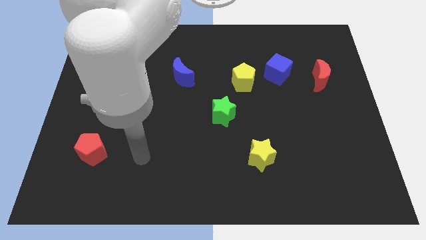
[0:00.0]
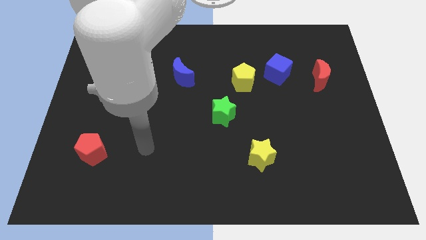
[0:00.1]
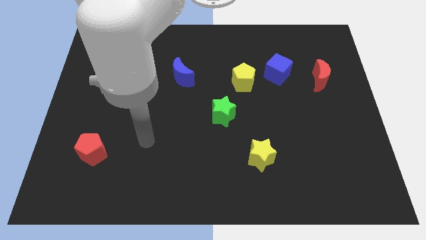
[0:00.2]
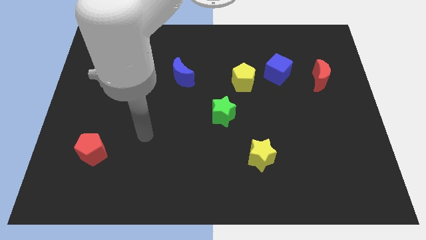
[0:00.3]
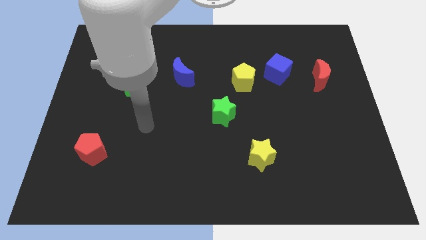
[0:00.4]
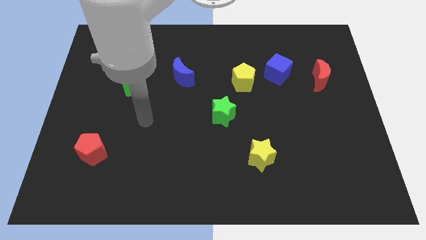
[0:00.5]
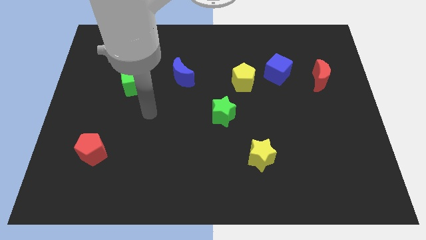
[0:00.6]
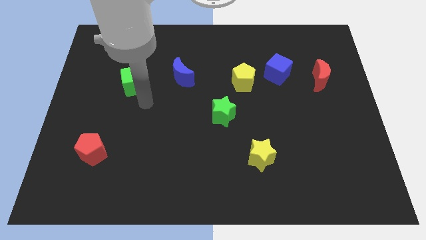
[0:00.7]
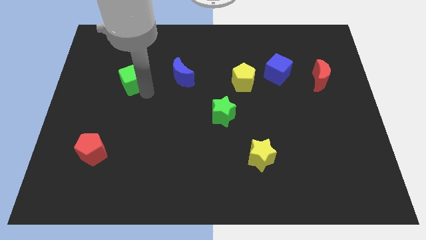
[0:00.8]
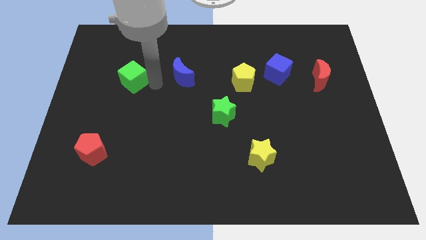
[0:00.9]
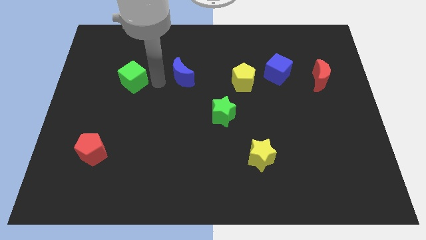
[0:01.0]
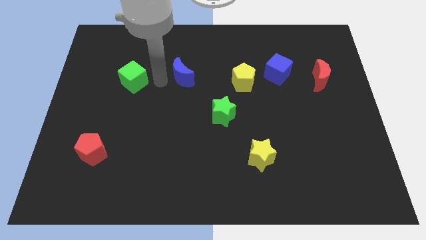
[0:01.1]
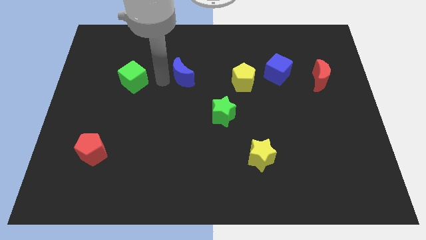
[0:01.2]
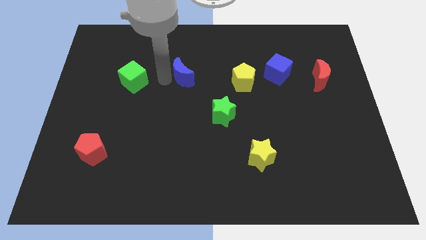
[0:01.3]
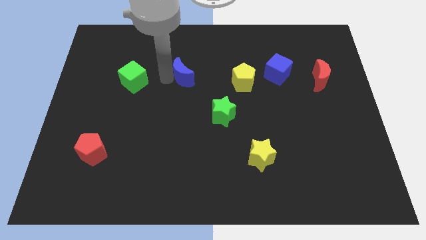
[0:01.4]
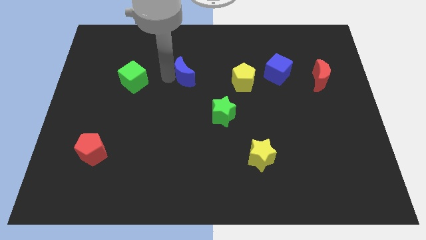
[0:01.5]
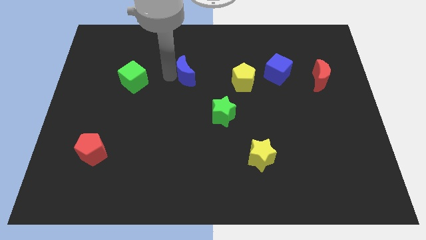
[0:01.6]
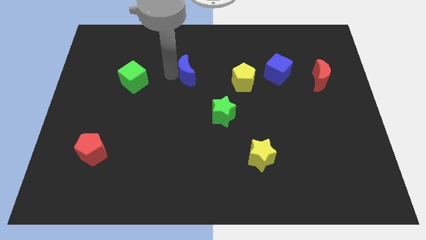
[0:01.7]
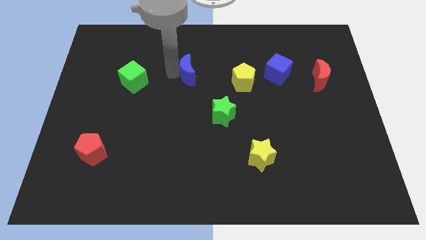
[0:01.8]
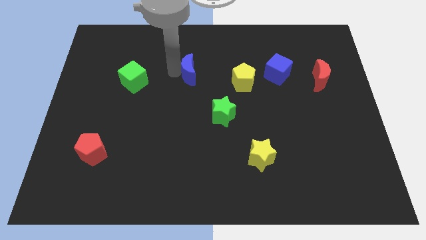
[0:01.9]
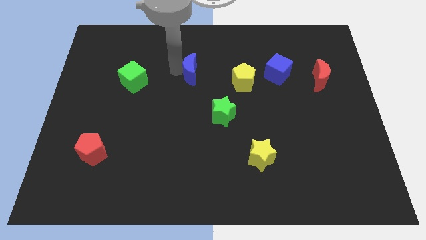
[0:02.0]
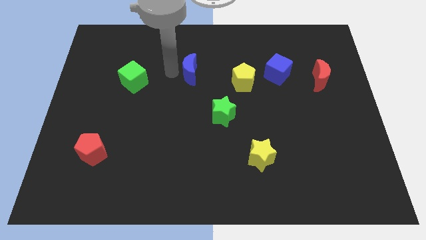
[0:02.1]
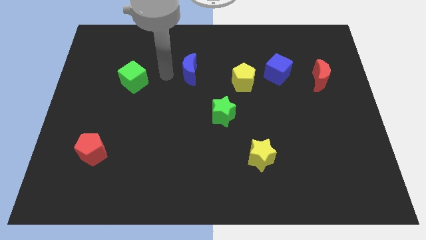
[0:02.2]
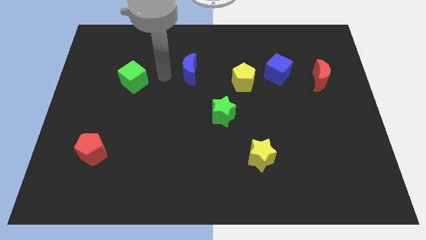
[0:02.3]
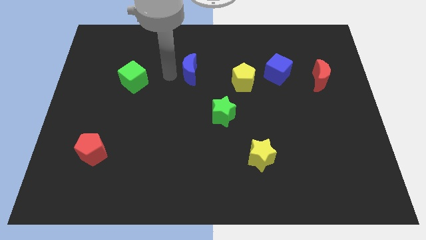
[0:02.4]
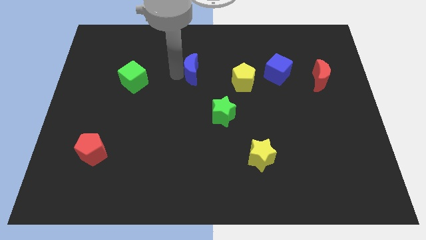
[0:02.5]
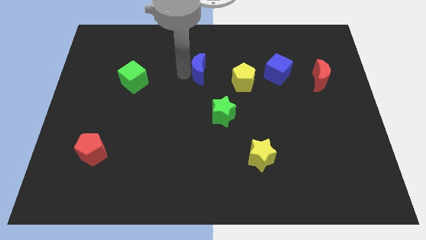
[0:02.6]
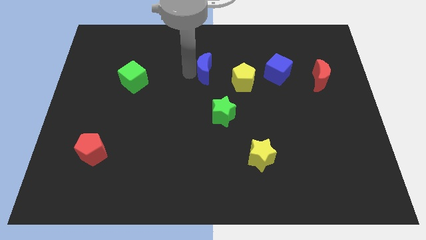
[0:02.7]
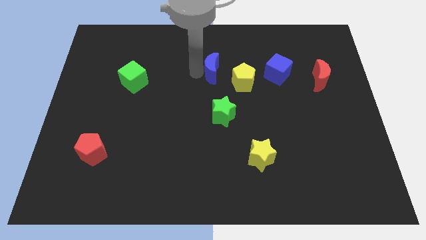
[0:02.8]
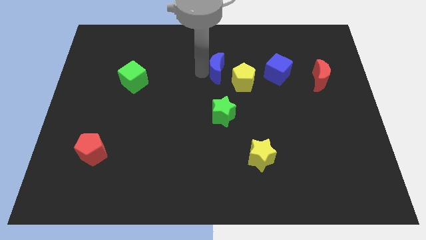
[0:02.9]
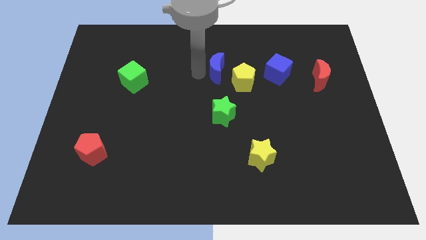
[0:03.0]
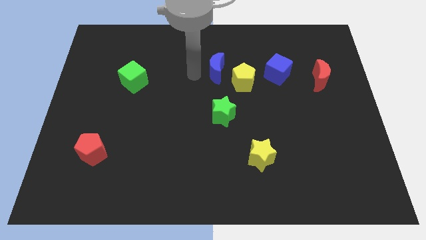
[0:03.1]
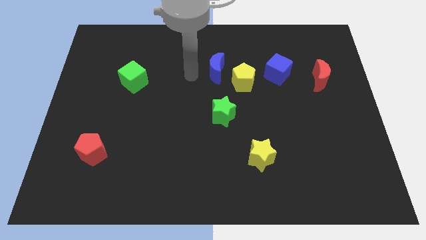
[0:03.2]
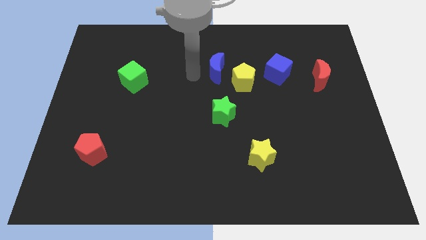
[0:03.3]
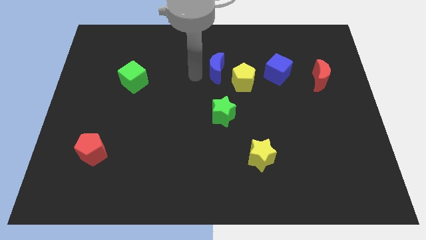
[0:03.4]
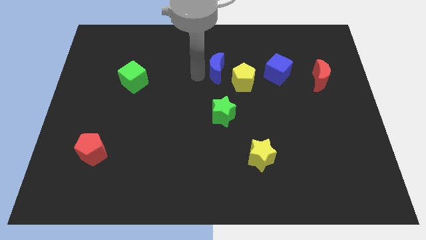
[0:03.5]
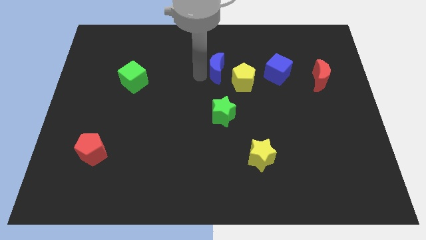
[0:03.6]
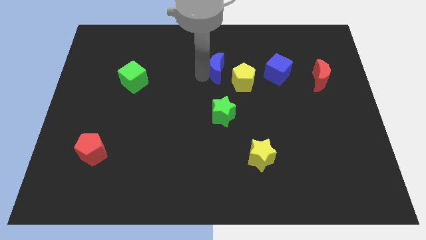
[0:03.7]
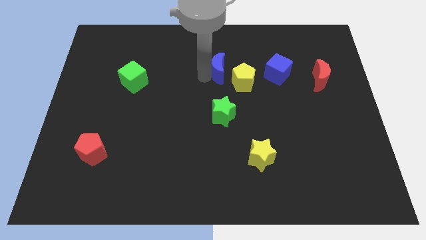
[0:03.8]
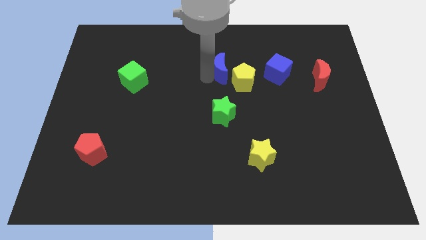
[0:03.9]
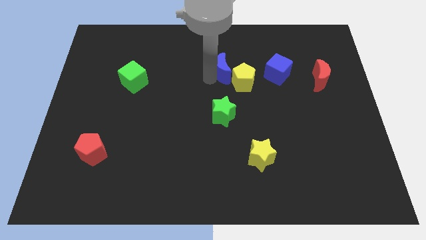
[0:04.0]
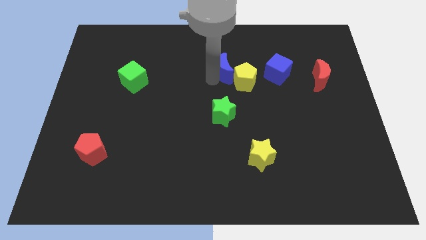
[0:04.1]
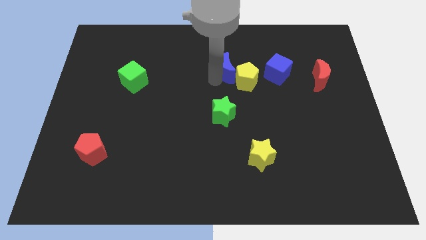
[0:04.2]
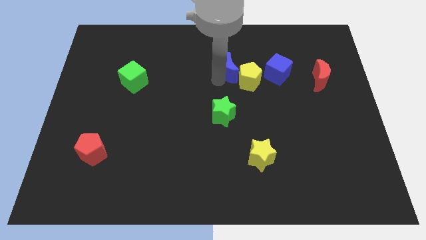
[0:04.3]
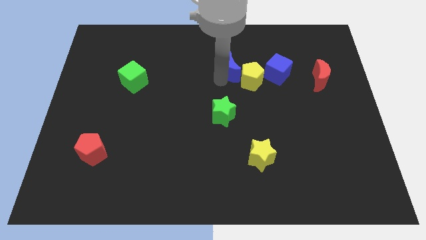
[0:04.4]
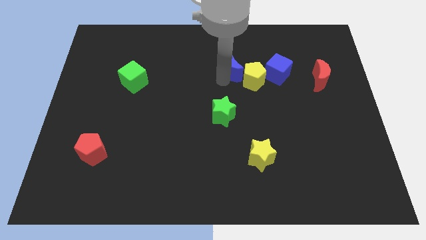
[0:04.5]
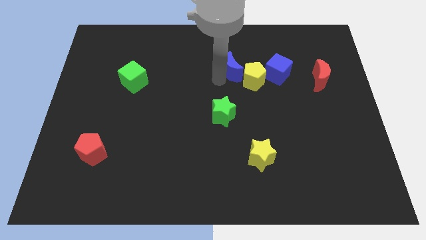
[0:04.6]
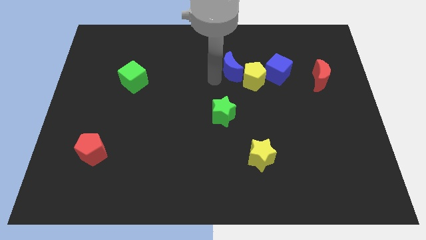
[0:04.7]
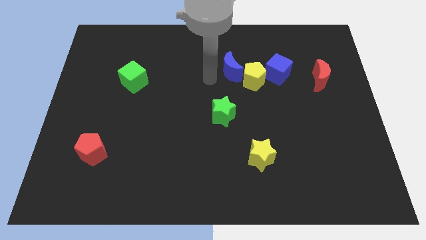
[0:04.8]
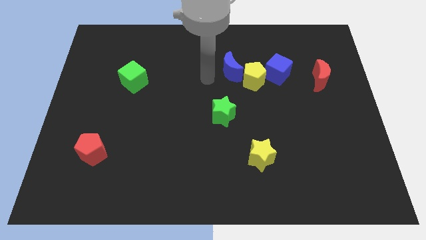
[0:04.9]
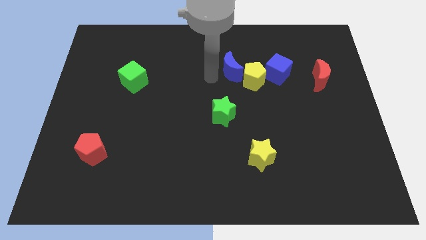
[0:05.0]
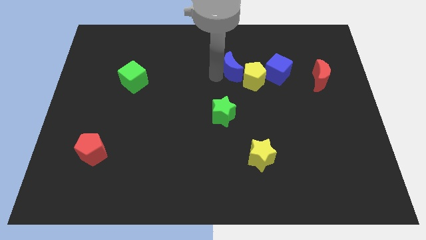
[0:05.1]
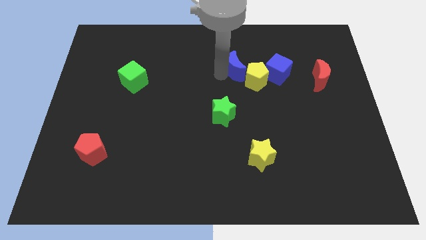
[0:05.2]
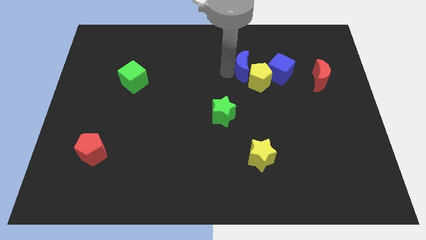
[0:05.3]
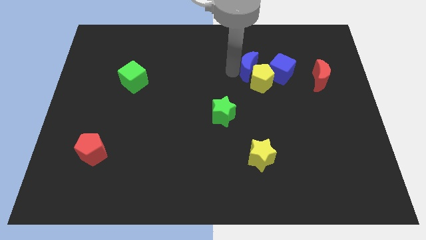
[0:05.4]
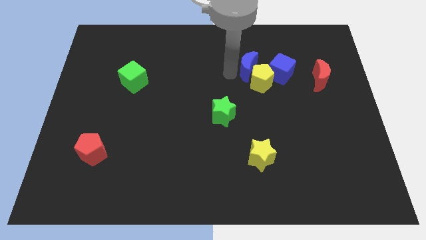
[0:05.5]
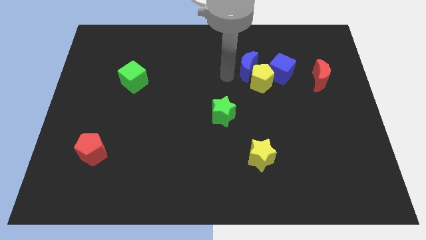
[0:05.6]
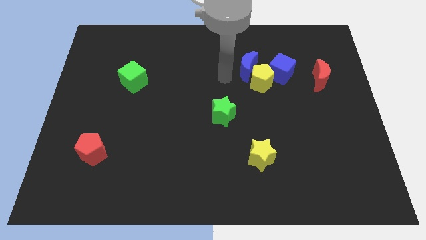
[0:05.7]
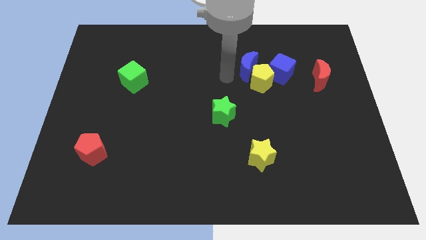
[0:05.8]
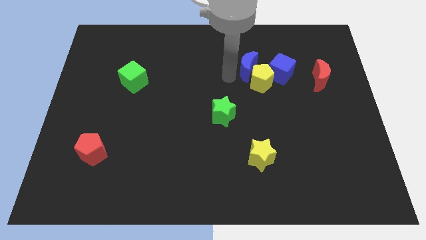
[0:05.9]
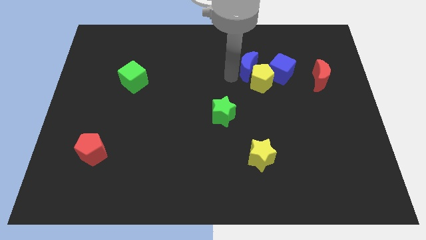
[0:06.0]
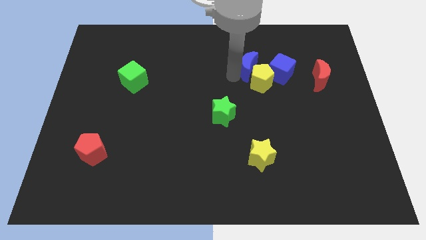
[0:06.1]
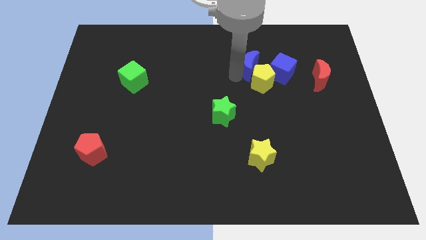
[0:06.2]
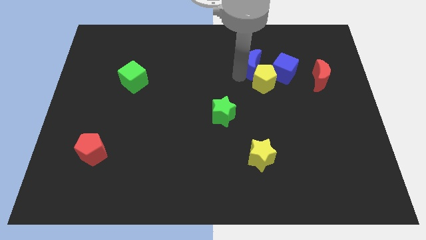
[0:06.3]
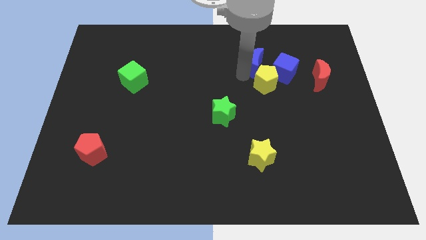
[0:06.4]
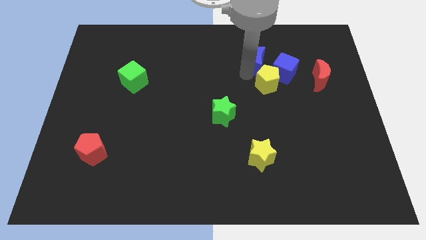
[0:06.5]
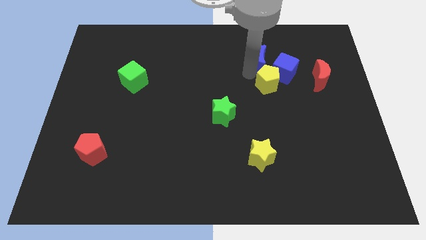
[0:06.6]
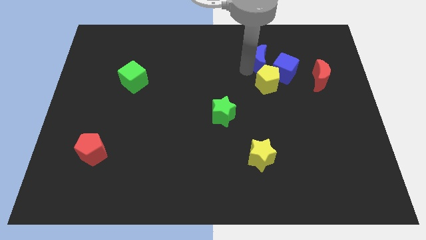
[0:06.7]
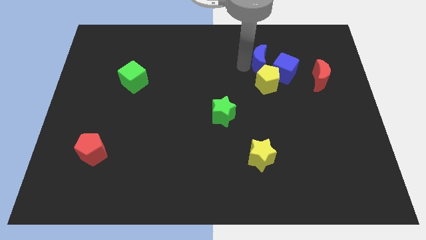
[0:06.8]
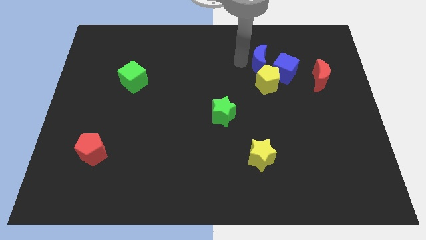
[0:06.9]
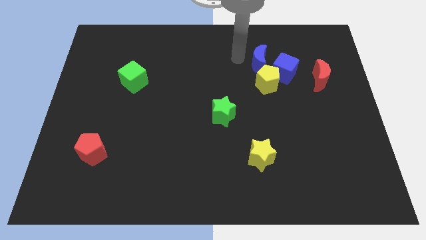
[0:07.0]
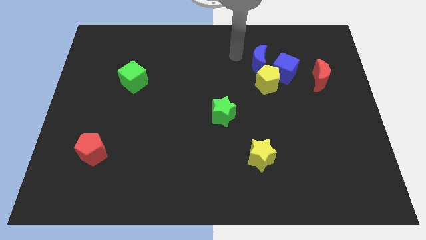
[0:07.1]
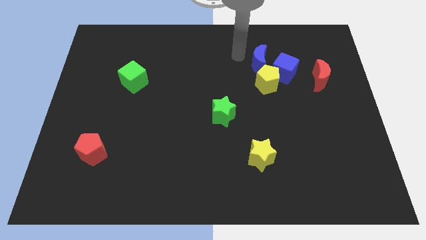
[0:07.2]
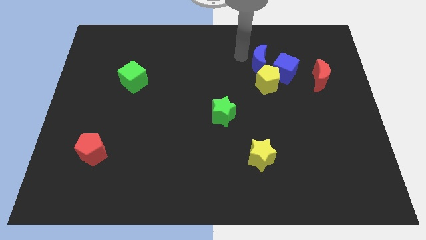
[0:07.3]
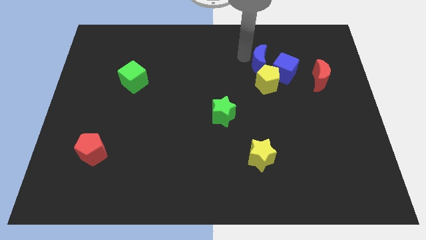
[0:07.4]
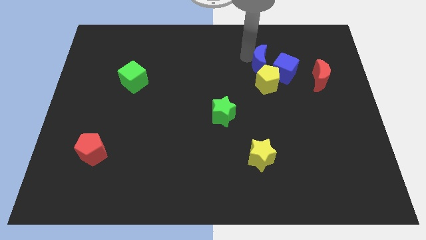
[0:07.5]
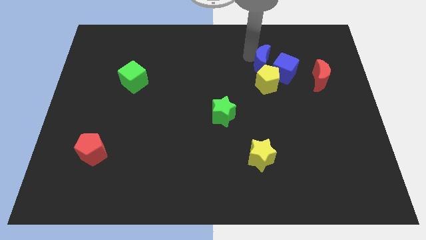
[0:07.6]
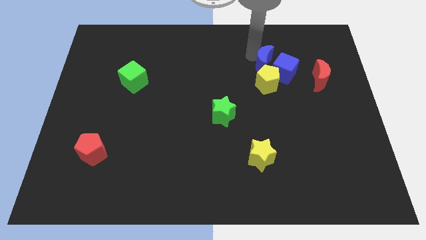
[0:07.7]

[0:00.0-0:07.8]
move the blue moon to the blue cube

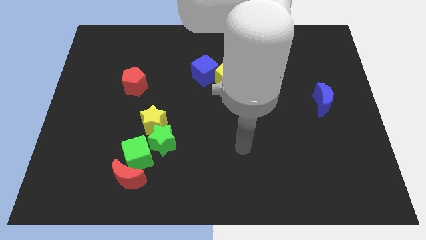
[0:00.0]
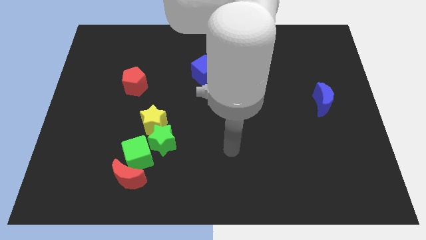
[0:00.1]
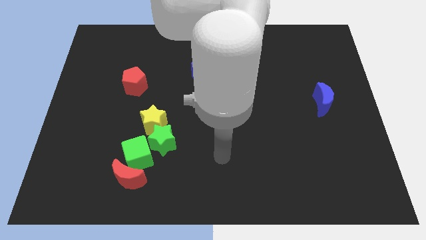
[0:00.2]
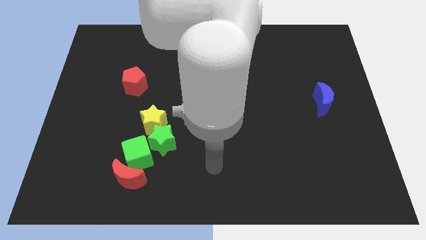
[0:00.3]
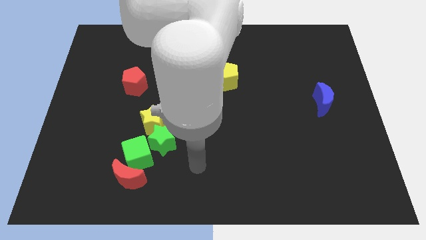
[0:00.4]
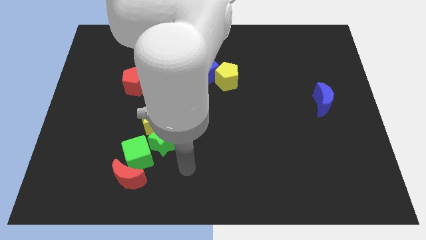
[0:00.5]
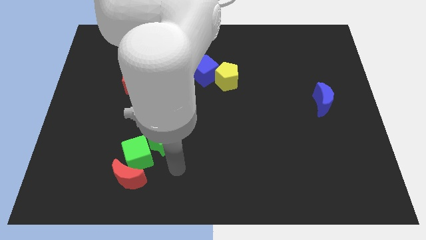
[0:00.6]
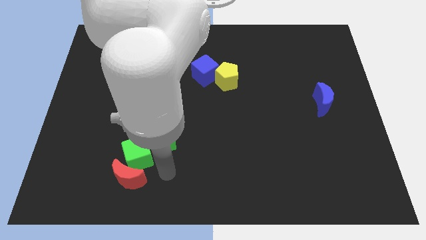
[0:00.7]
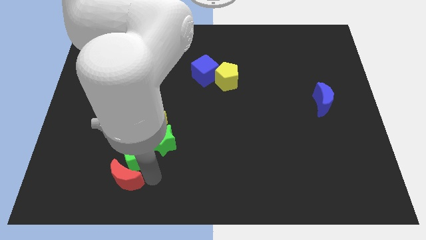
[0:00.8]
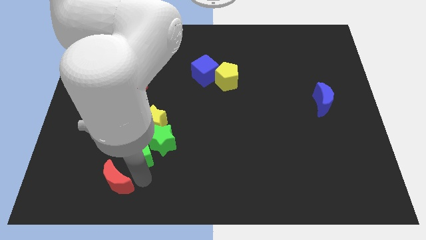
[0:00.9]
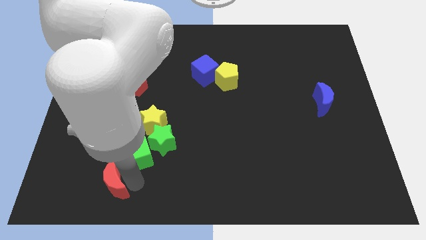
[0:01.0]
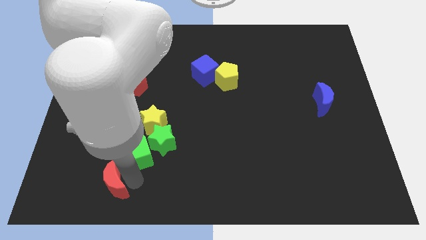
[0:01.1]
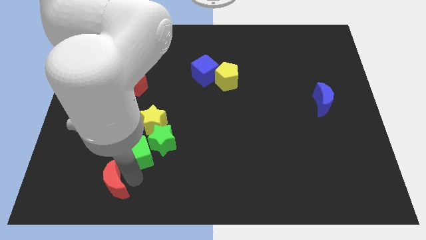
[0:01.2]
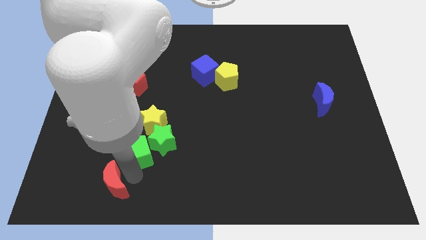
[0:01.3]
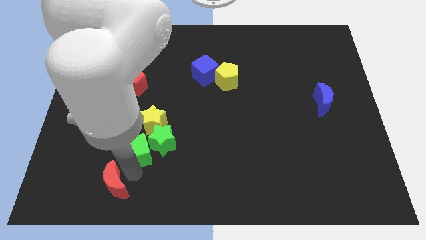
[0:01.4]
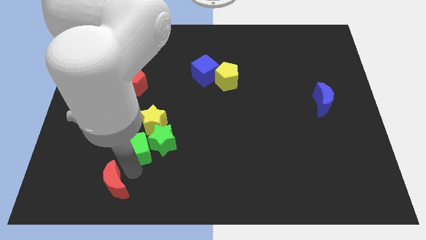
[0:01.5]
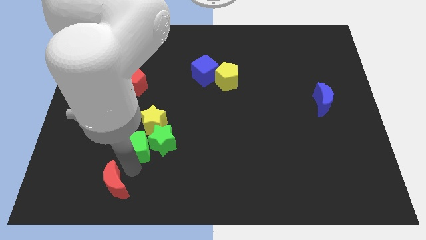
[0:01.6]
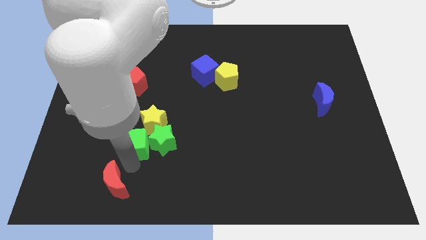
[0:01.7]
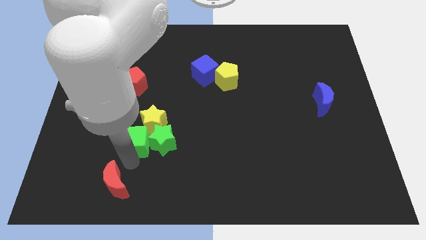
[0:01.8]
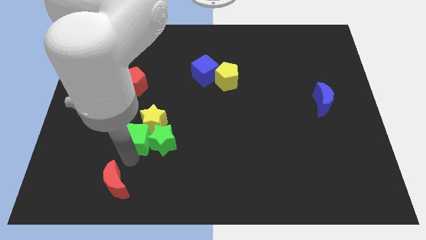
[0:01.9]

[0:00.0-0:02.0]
move the green cube to the yellow star
